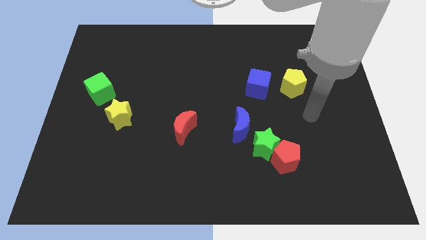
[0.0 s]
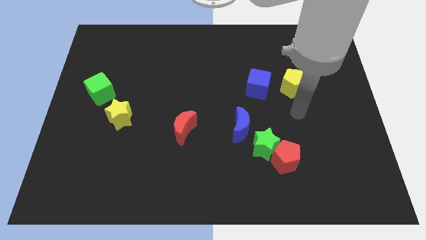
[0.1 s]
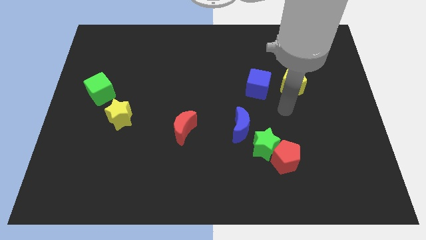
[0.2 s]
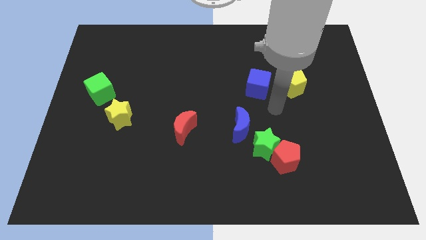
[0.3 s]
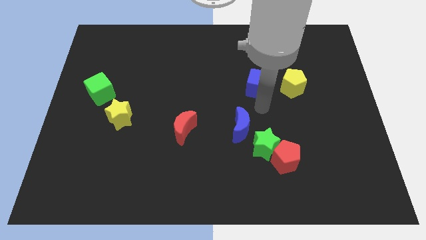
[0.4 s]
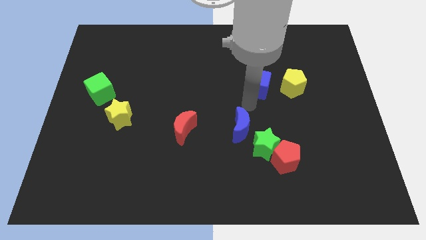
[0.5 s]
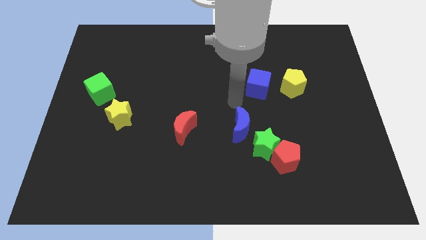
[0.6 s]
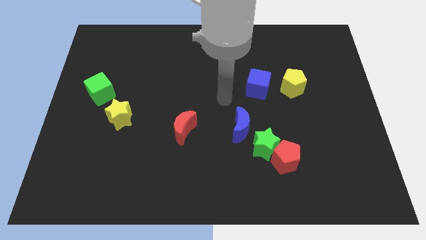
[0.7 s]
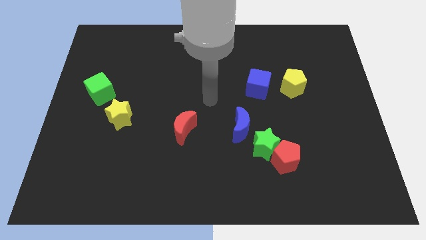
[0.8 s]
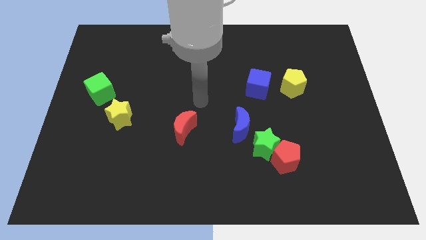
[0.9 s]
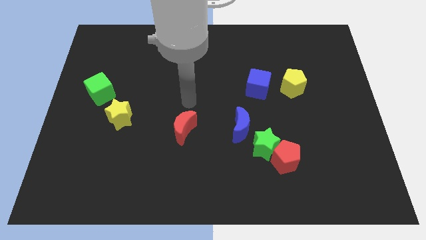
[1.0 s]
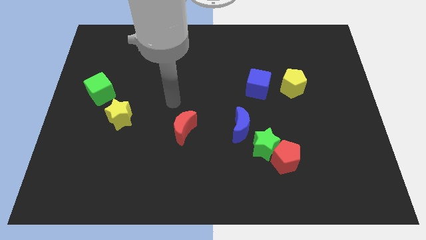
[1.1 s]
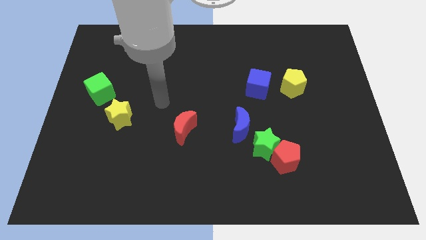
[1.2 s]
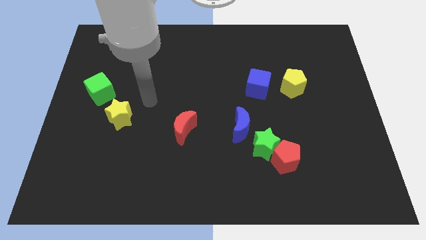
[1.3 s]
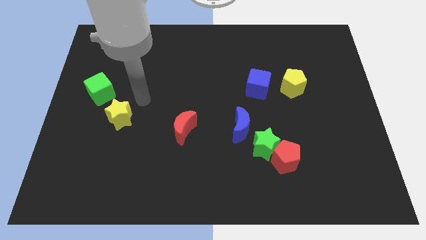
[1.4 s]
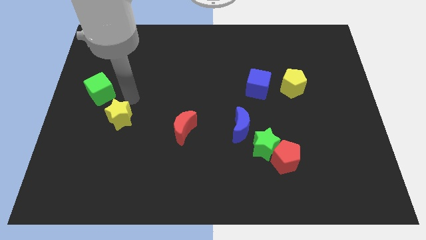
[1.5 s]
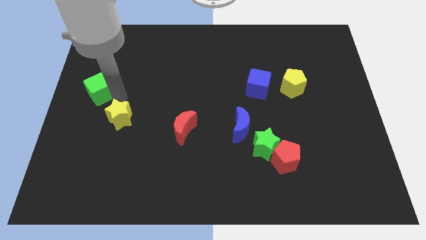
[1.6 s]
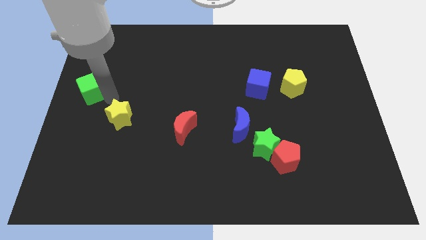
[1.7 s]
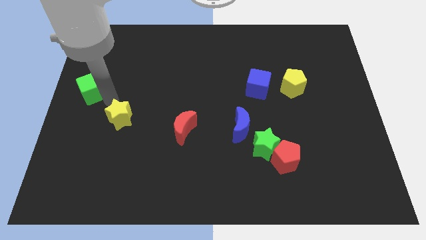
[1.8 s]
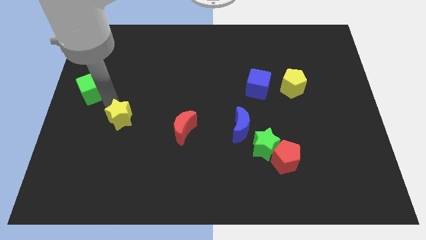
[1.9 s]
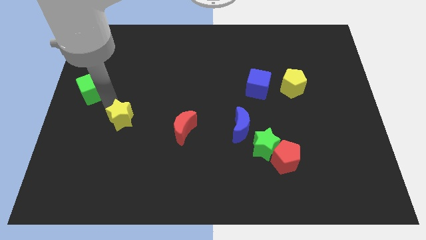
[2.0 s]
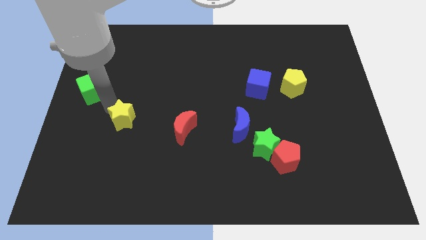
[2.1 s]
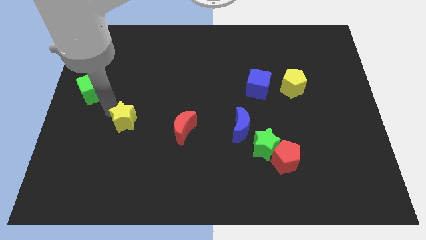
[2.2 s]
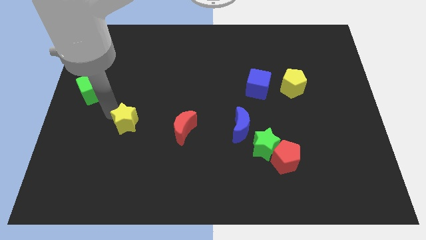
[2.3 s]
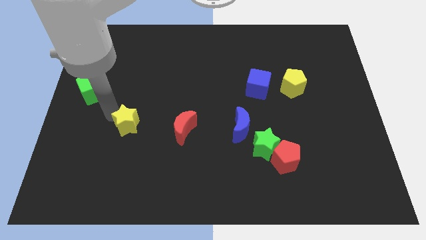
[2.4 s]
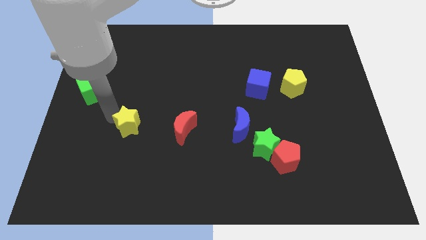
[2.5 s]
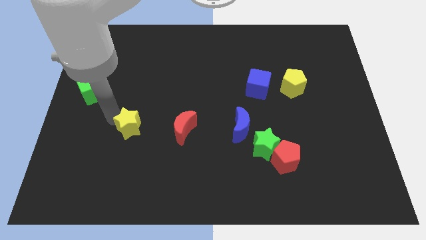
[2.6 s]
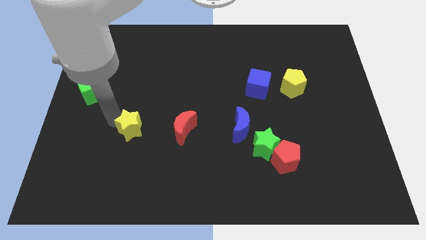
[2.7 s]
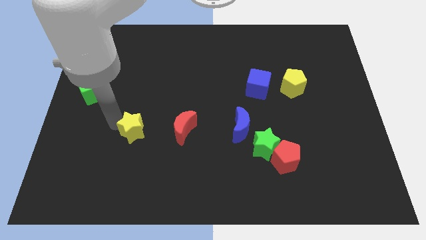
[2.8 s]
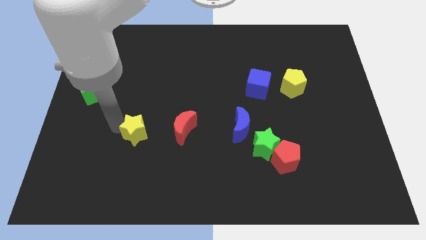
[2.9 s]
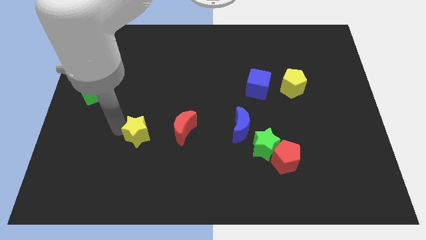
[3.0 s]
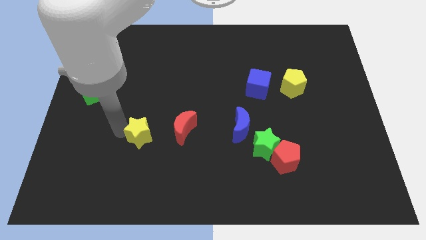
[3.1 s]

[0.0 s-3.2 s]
move the yellow star downwards and right diagonally somewhat

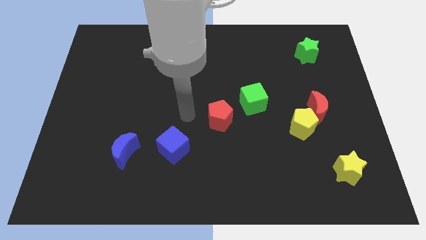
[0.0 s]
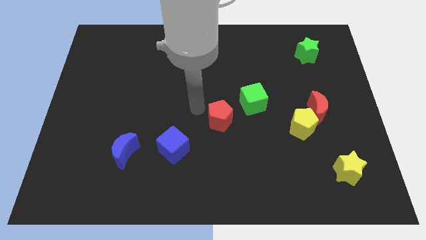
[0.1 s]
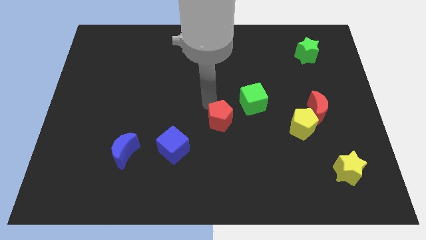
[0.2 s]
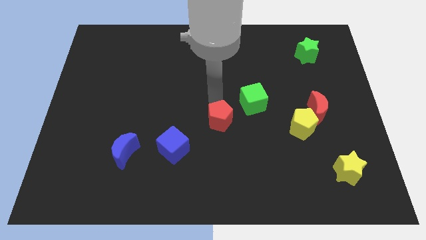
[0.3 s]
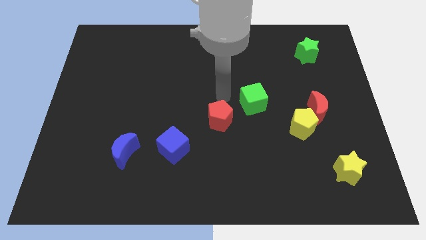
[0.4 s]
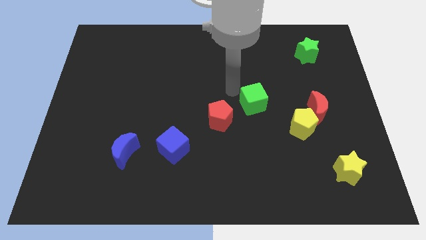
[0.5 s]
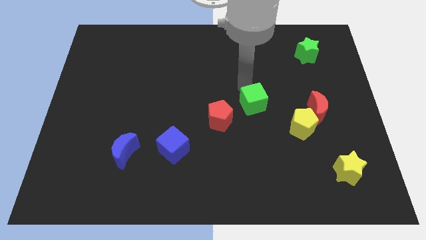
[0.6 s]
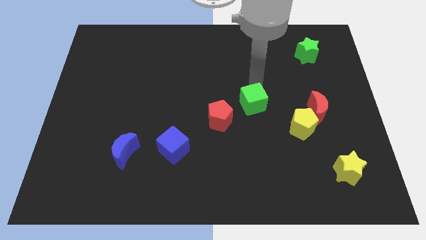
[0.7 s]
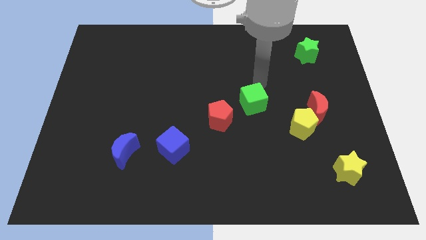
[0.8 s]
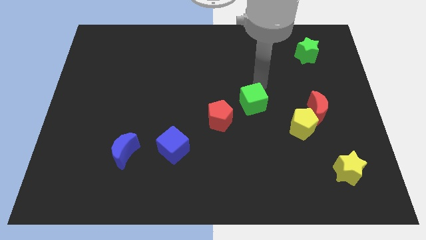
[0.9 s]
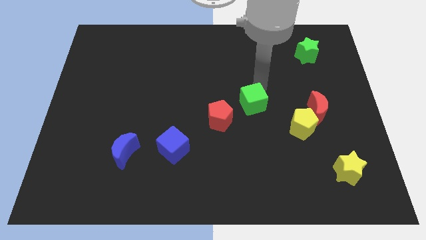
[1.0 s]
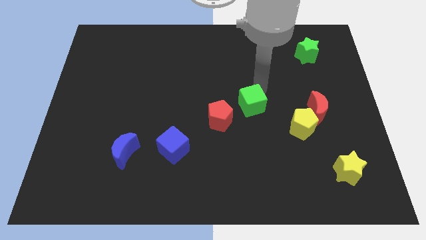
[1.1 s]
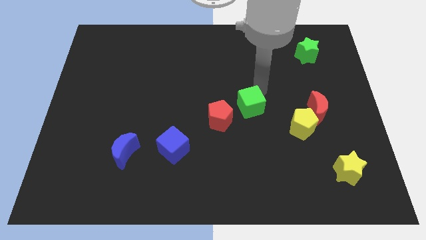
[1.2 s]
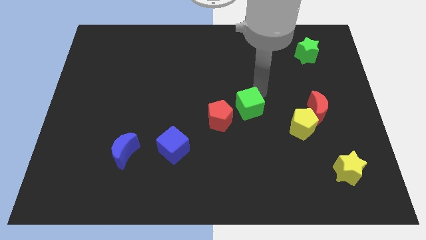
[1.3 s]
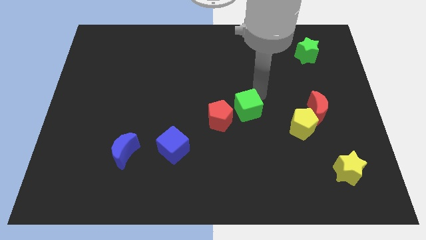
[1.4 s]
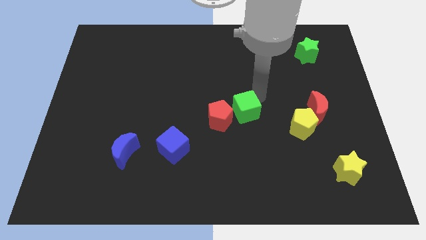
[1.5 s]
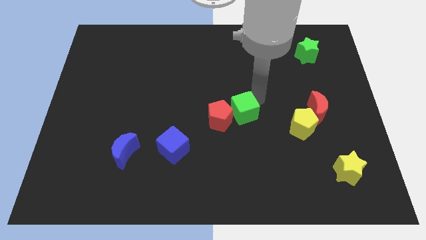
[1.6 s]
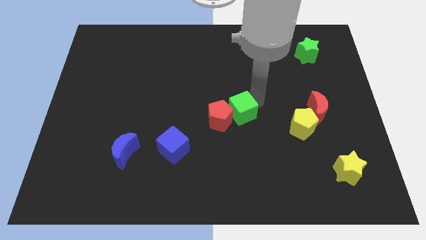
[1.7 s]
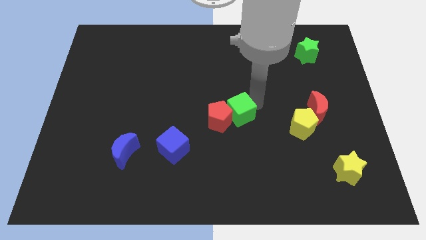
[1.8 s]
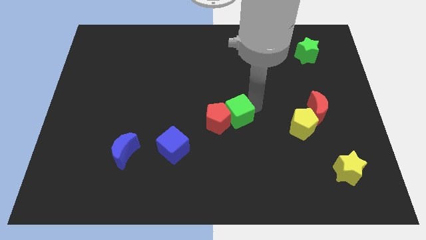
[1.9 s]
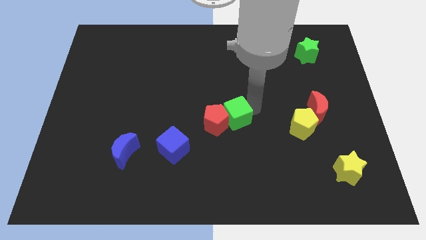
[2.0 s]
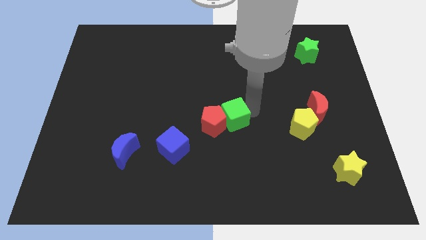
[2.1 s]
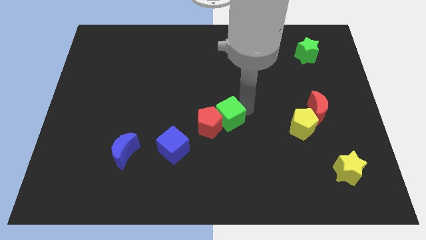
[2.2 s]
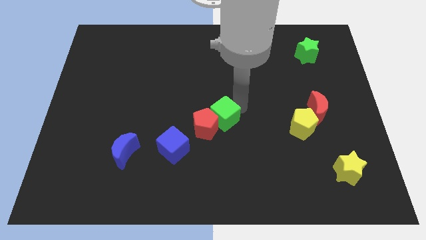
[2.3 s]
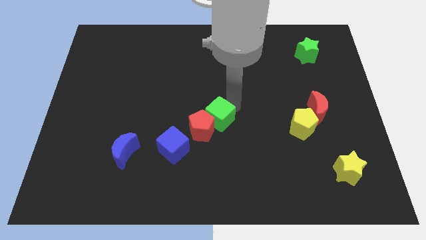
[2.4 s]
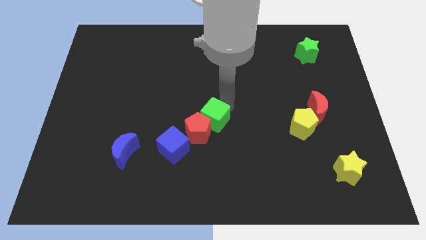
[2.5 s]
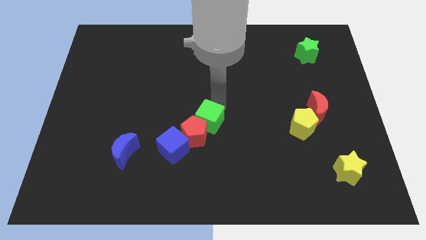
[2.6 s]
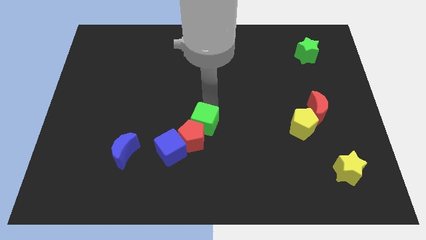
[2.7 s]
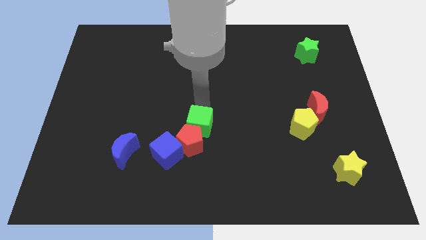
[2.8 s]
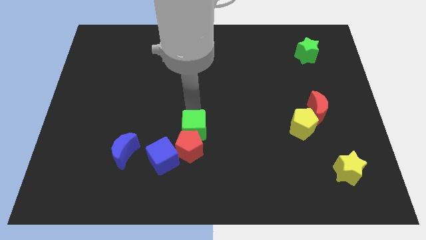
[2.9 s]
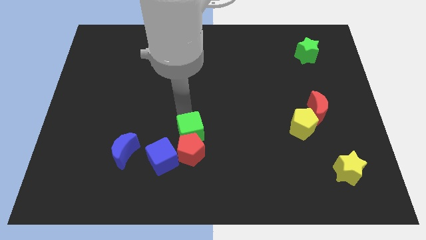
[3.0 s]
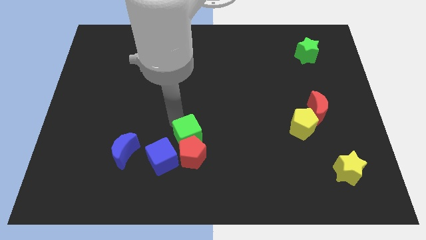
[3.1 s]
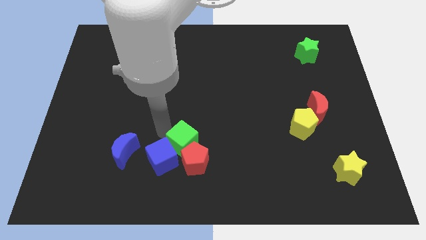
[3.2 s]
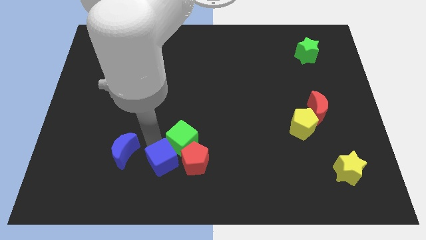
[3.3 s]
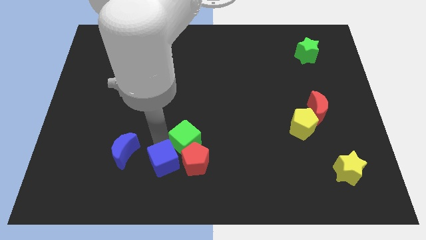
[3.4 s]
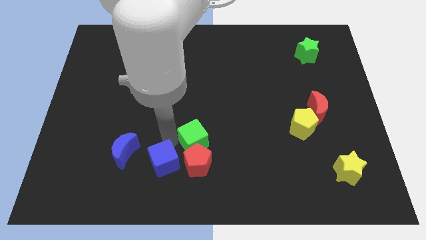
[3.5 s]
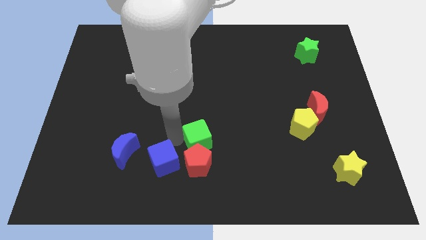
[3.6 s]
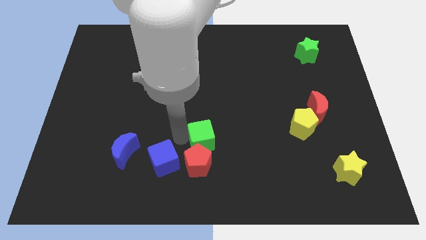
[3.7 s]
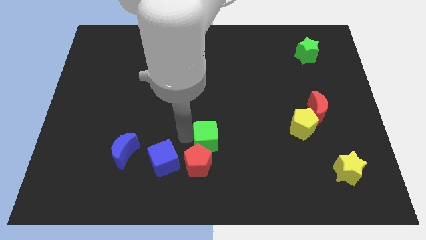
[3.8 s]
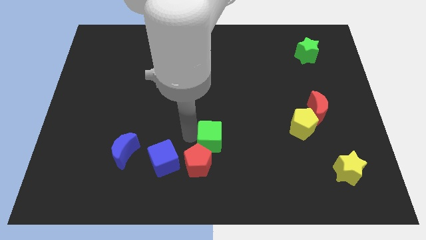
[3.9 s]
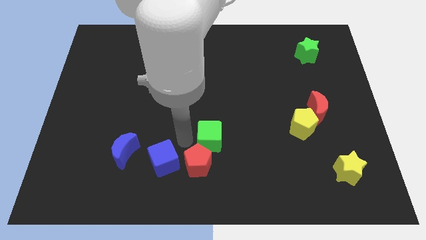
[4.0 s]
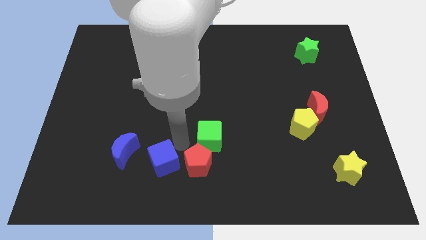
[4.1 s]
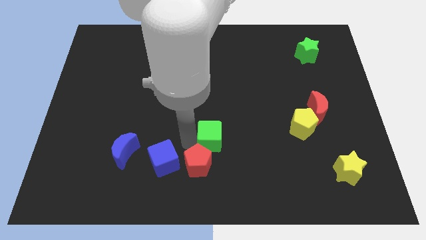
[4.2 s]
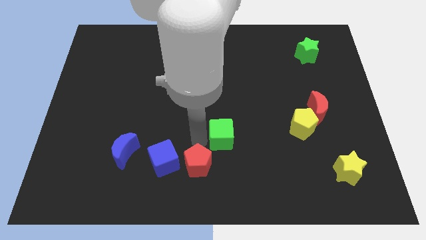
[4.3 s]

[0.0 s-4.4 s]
slide the green cube somewhat downwards

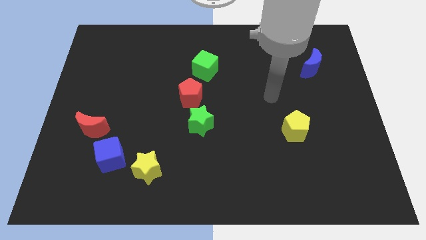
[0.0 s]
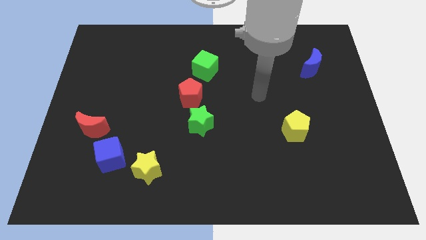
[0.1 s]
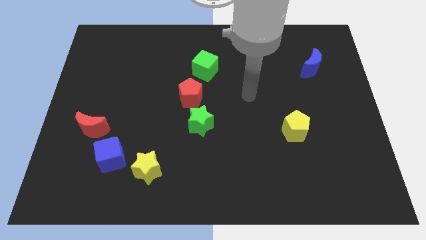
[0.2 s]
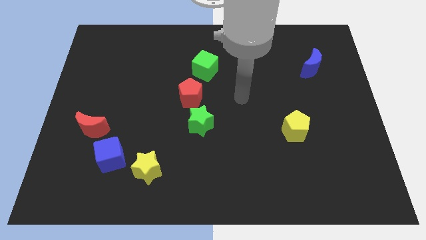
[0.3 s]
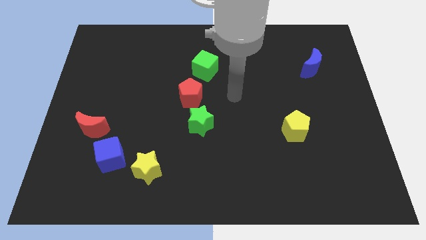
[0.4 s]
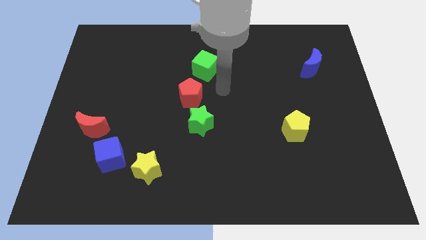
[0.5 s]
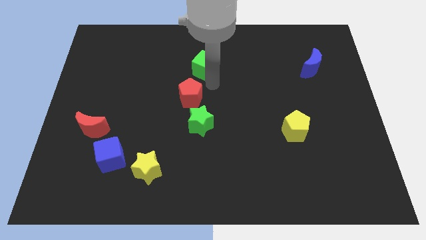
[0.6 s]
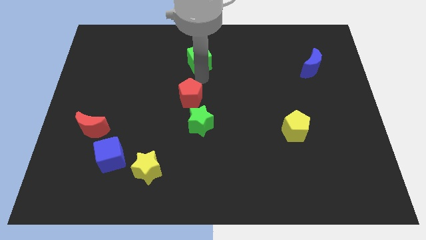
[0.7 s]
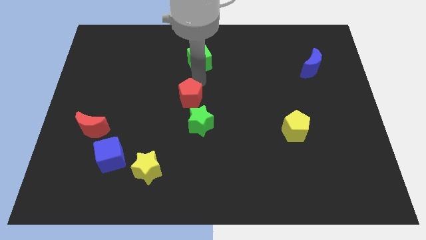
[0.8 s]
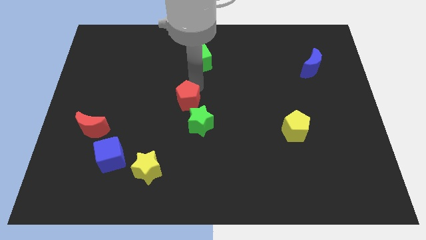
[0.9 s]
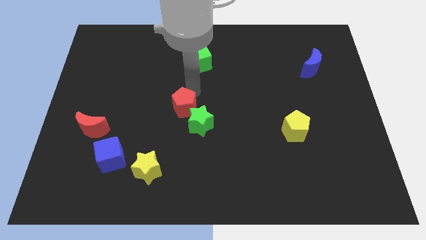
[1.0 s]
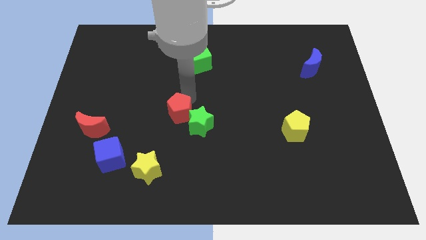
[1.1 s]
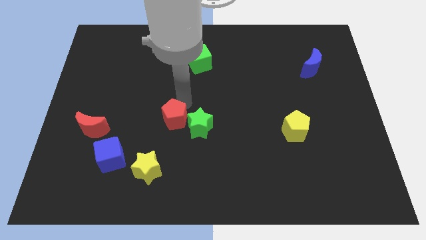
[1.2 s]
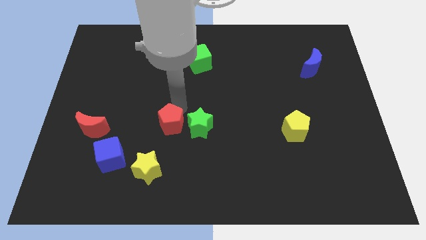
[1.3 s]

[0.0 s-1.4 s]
push the red pentagon down a little bit
